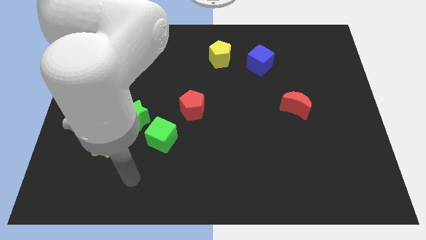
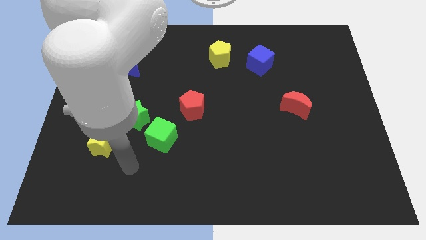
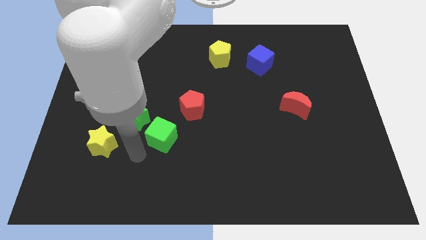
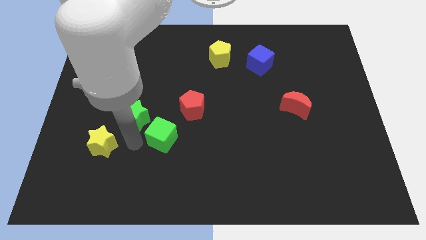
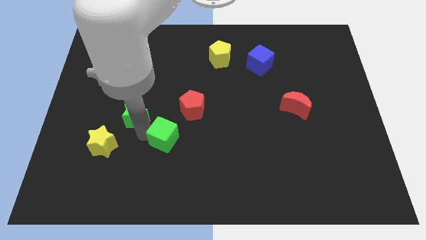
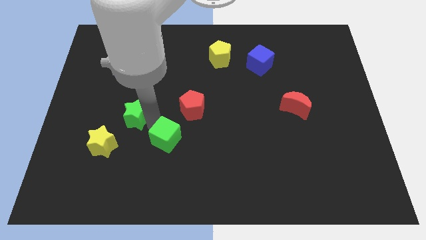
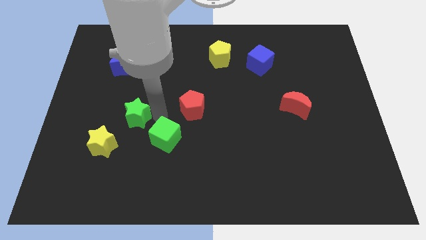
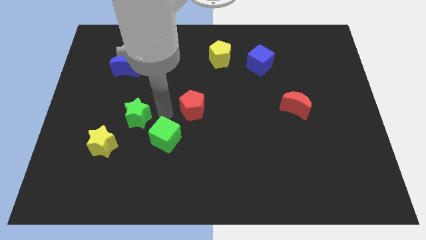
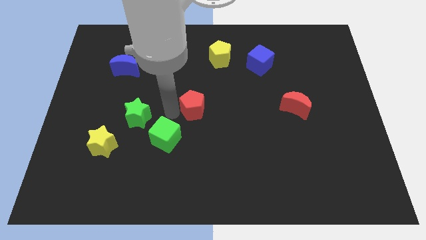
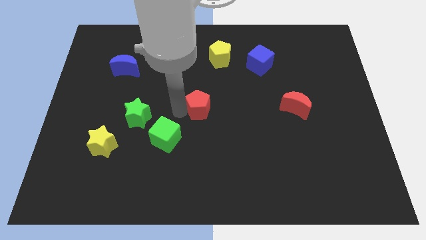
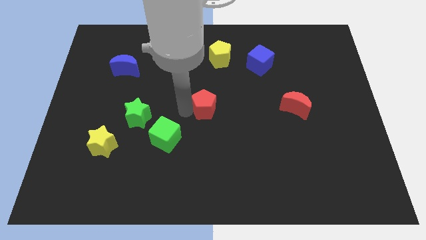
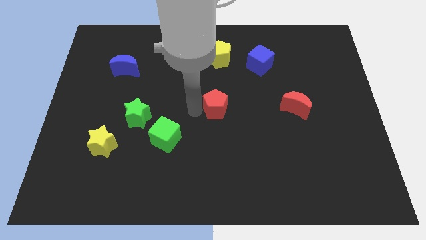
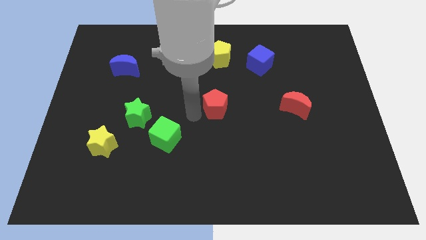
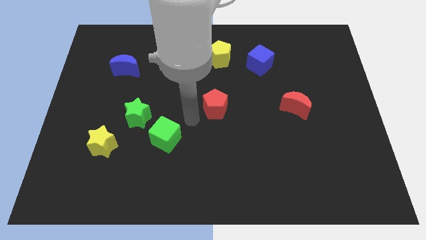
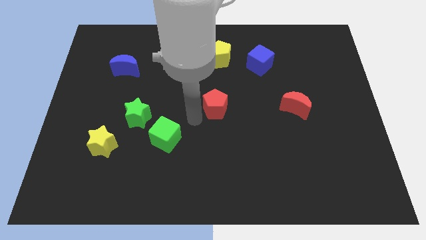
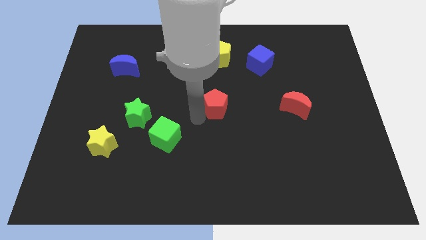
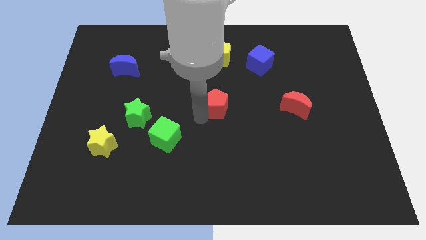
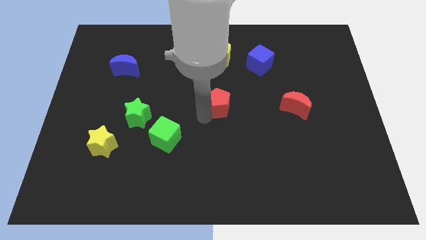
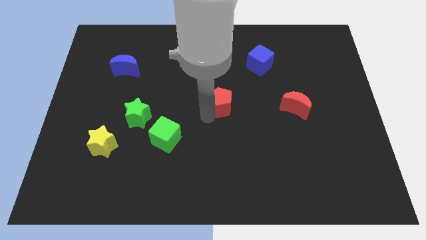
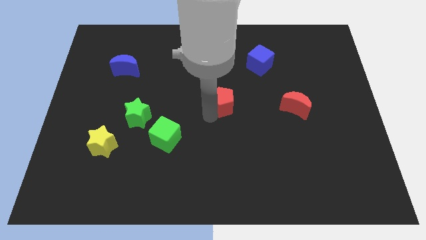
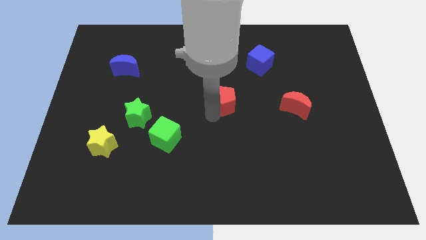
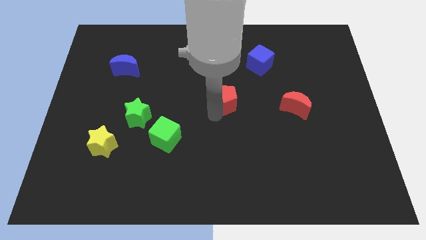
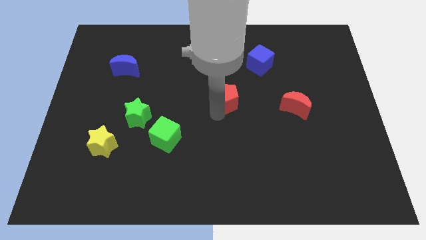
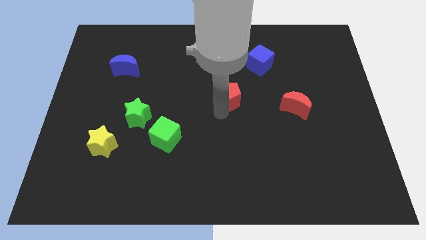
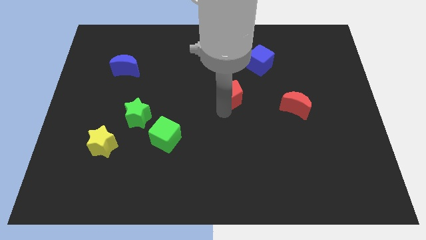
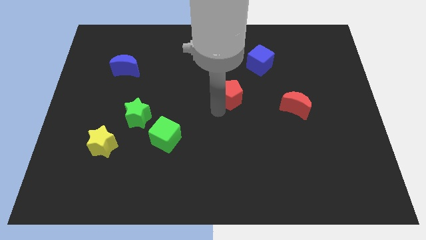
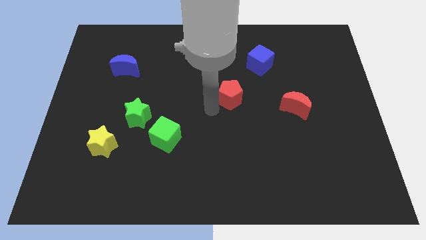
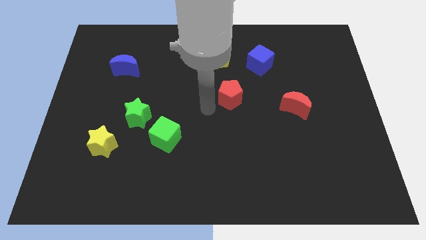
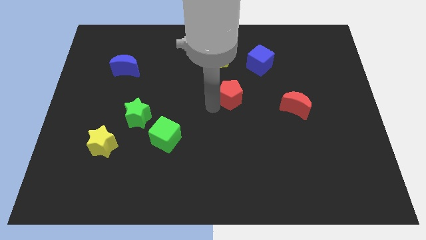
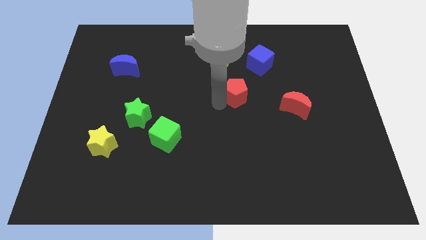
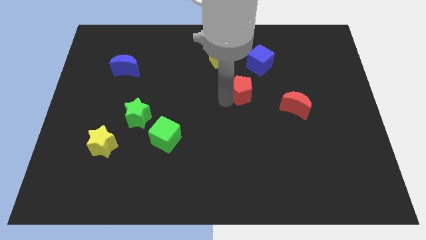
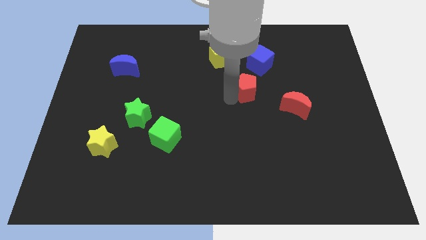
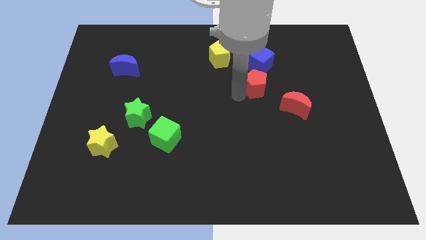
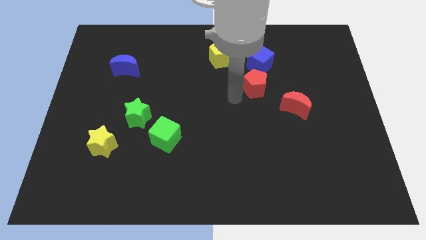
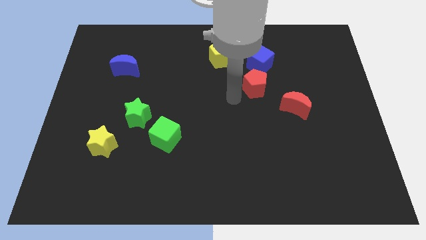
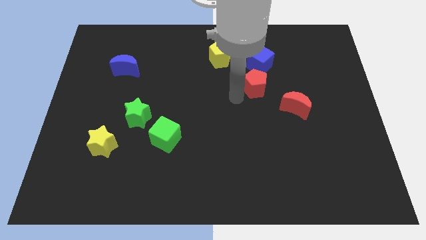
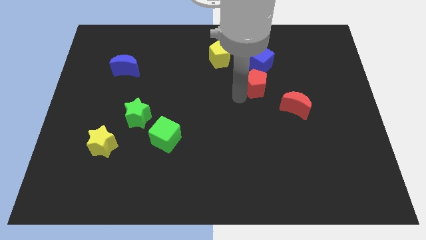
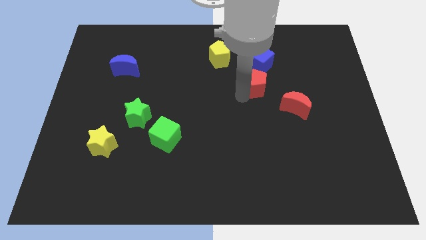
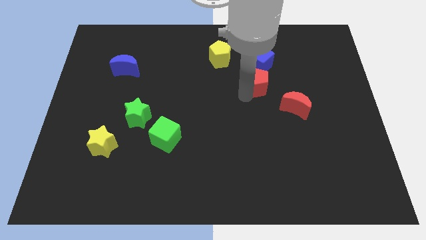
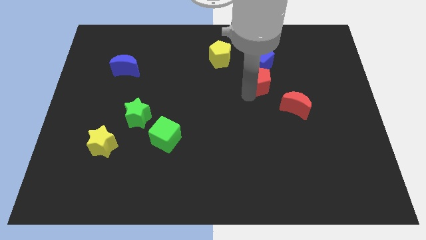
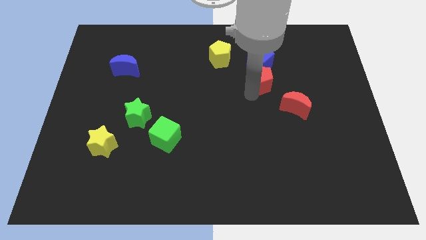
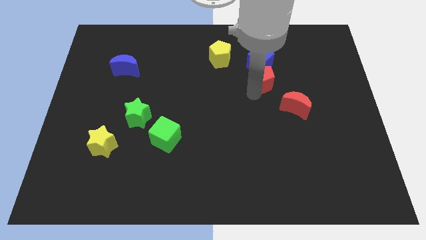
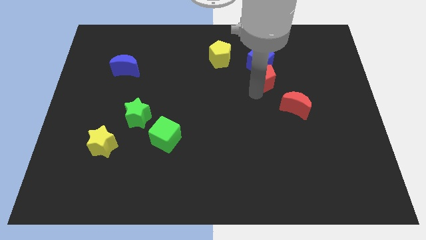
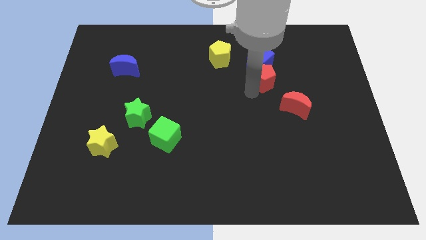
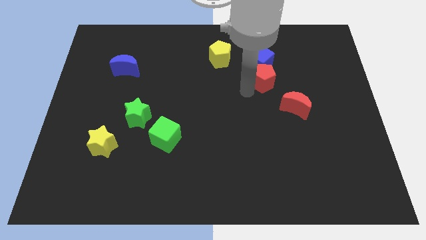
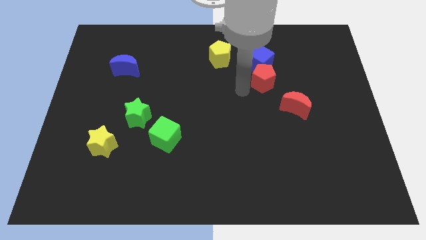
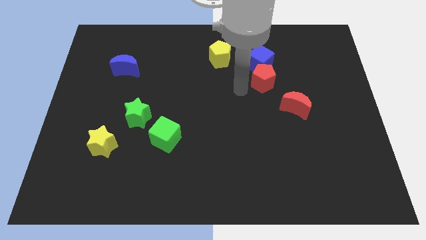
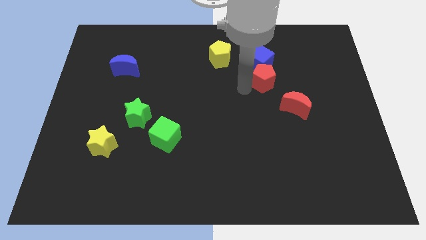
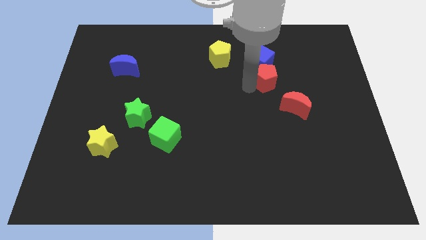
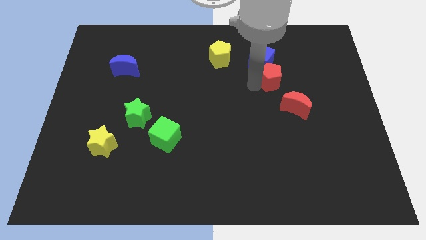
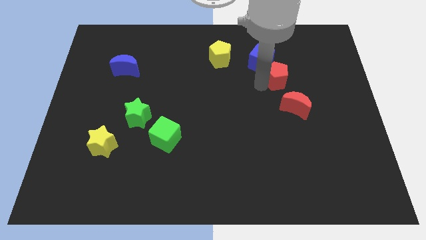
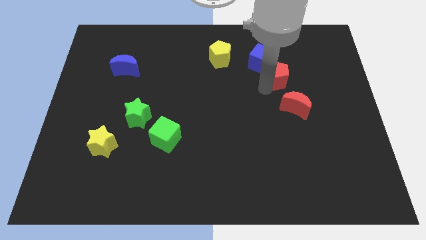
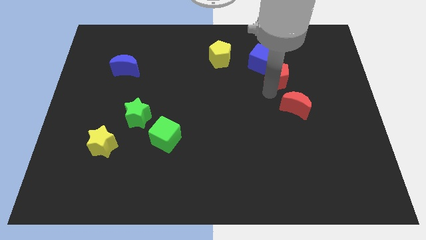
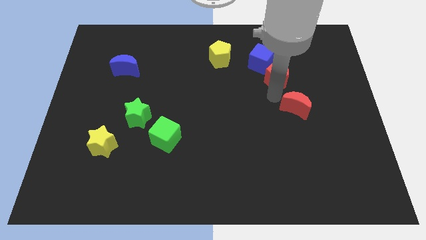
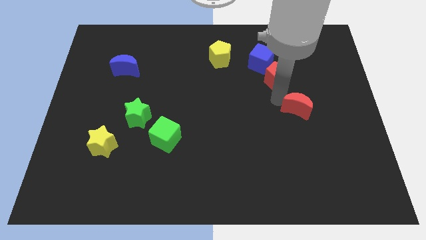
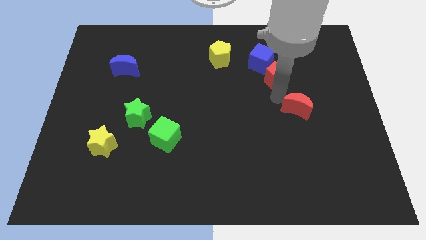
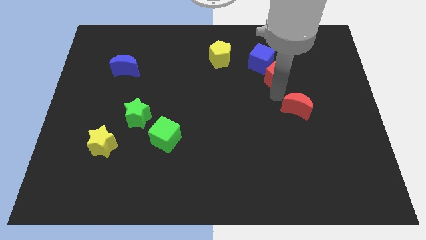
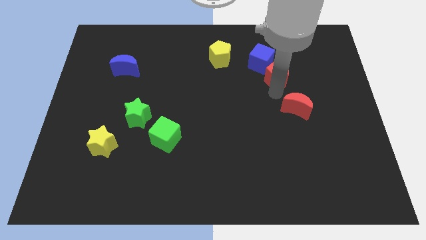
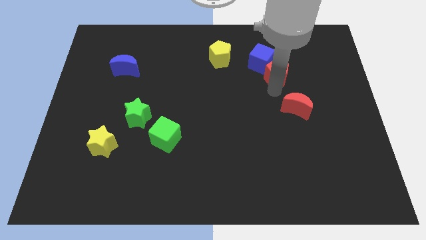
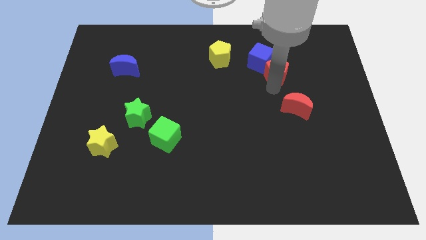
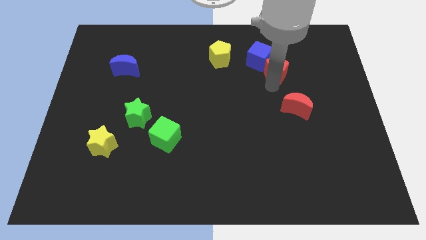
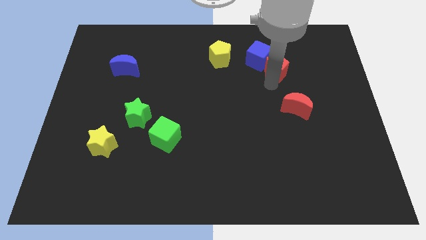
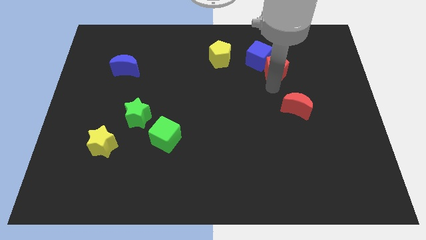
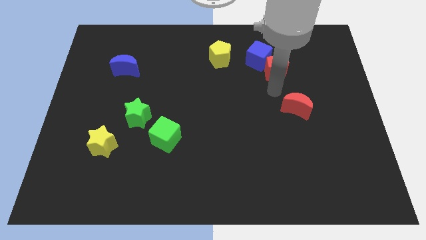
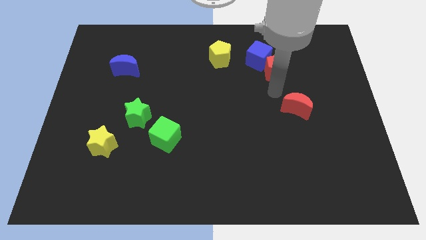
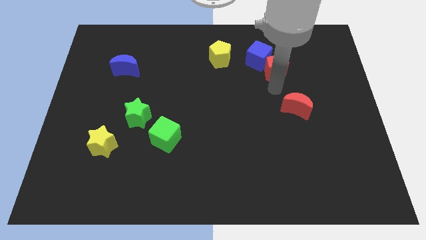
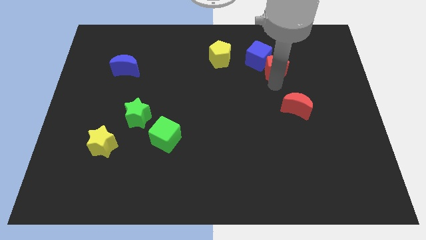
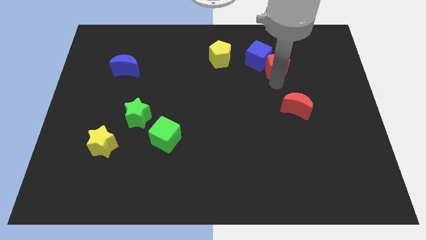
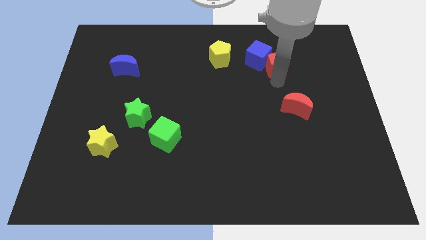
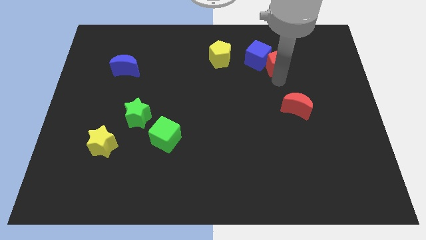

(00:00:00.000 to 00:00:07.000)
slide the red pentagon right of the yellow pentagon

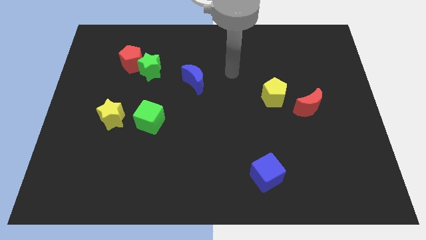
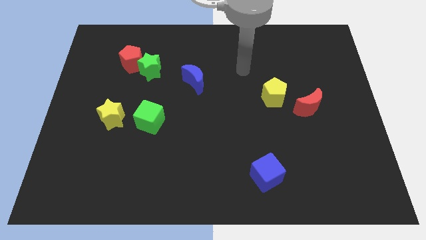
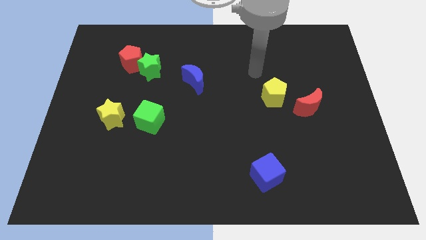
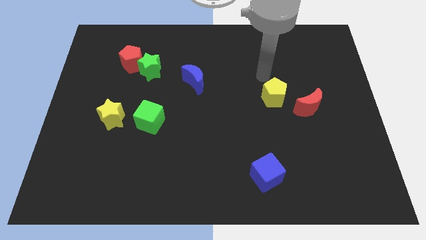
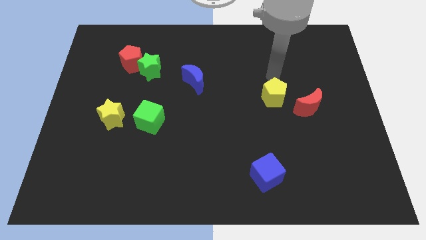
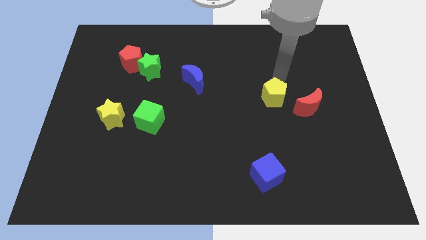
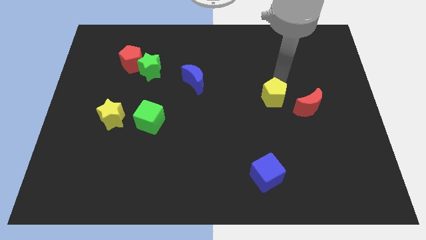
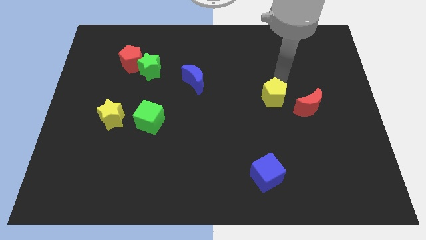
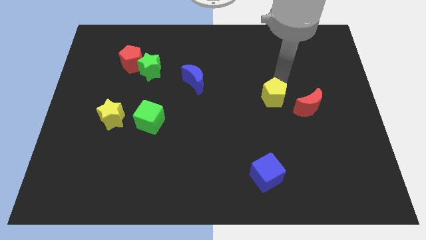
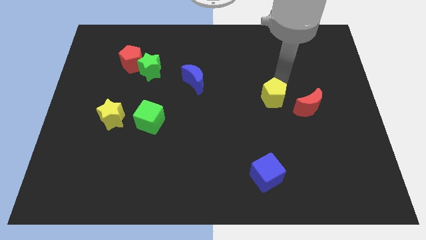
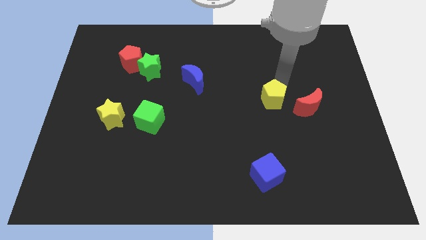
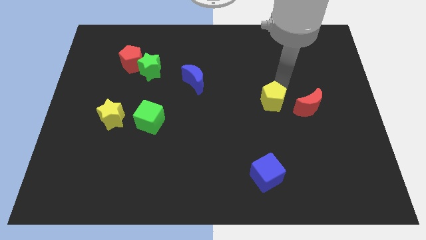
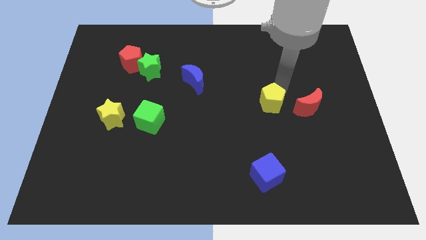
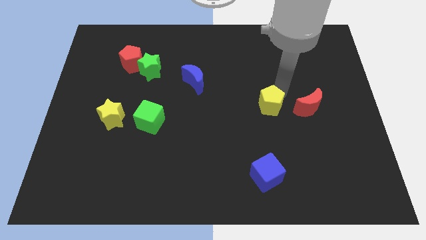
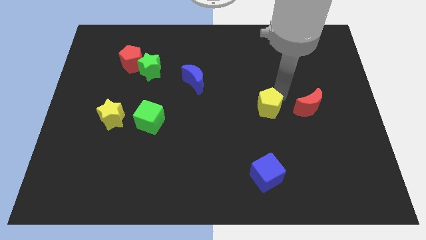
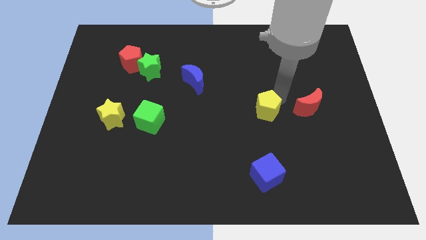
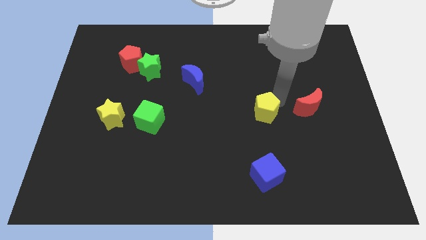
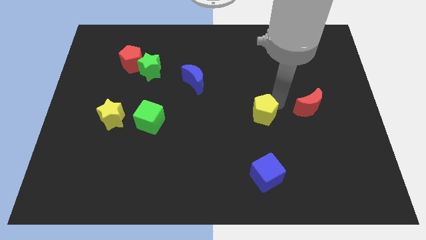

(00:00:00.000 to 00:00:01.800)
slide the yellow pentagon to the top of the blue cube
